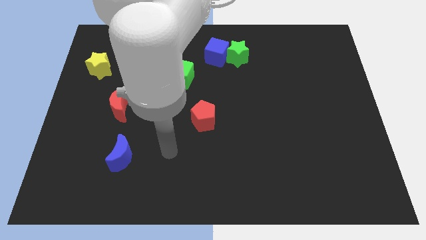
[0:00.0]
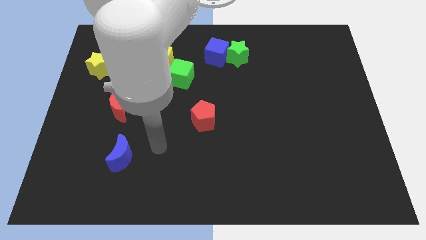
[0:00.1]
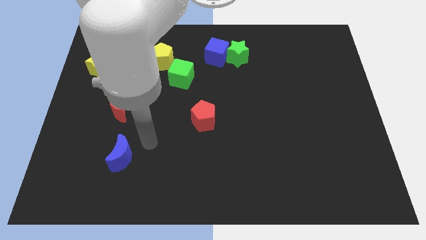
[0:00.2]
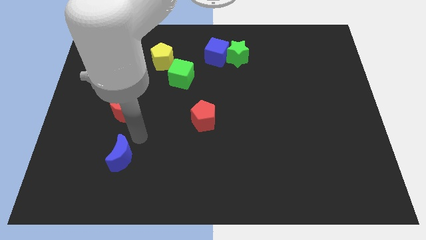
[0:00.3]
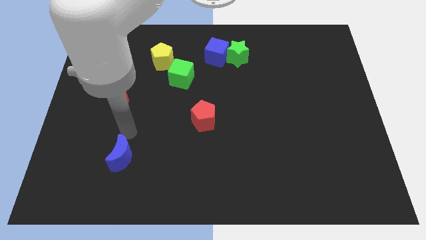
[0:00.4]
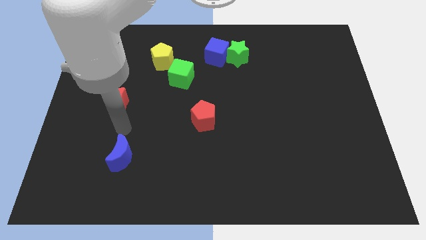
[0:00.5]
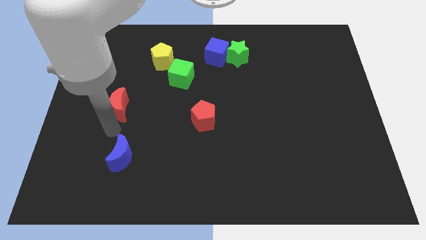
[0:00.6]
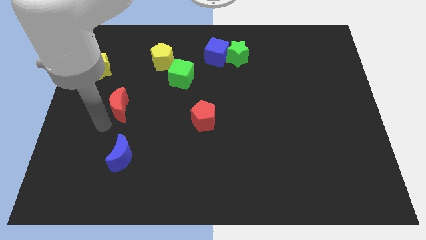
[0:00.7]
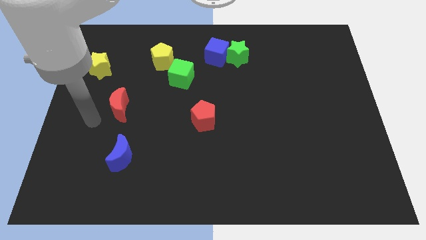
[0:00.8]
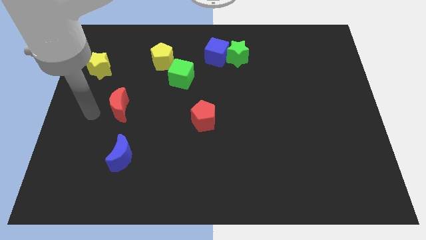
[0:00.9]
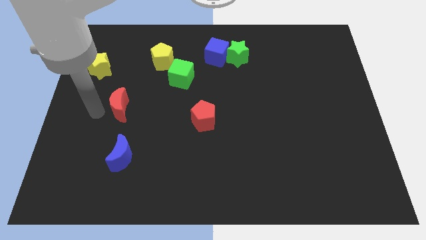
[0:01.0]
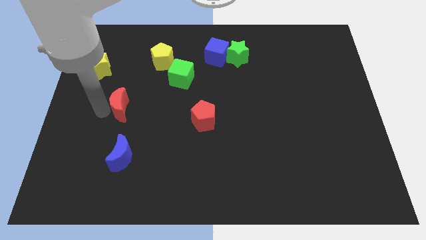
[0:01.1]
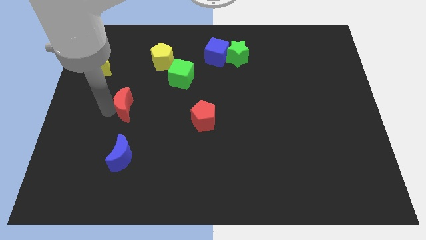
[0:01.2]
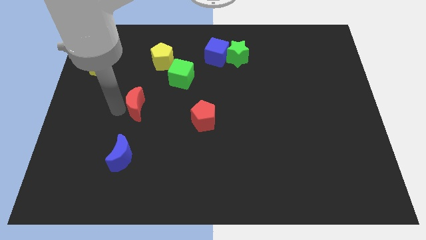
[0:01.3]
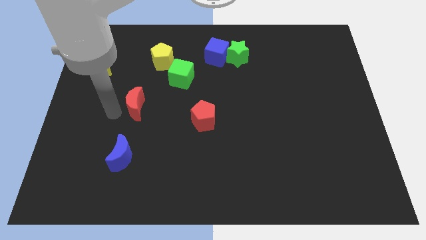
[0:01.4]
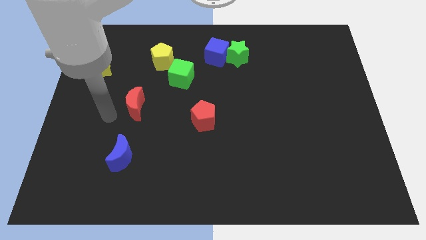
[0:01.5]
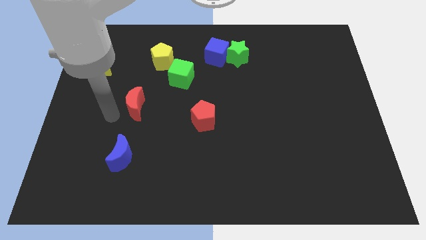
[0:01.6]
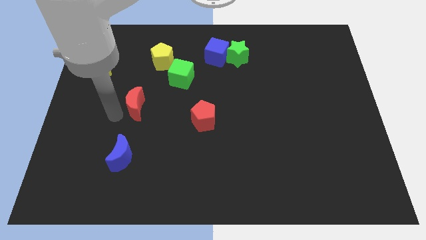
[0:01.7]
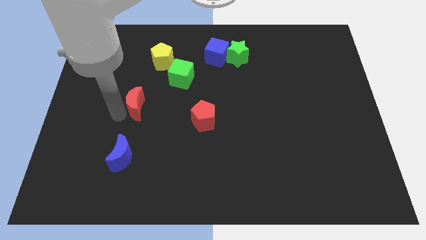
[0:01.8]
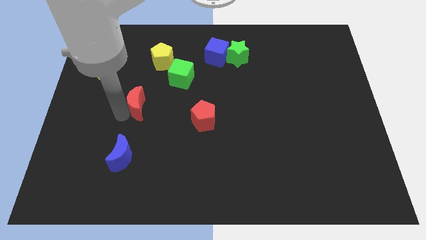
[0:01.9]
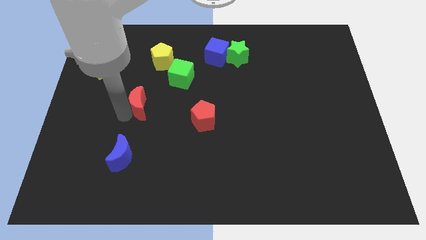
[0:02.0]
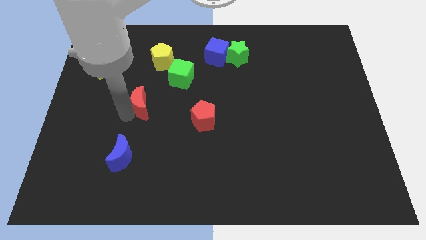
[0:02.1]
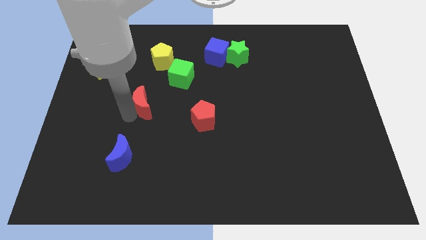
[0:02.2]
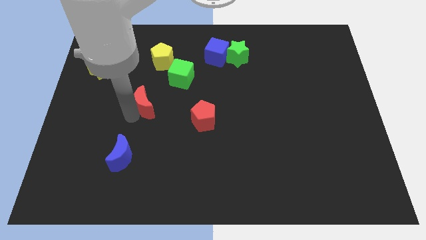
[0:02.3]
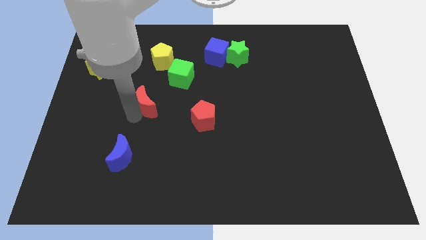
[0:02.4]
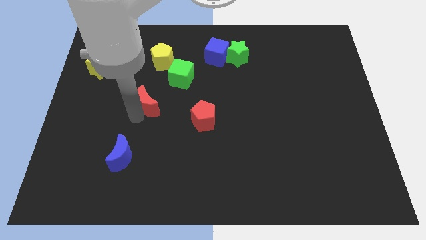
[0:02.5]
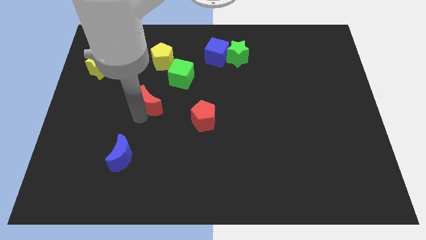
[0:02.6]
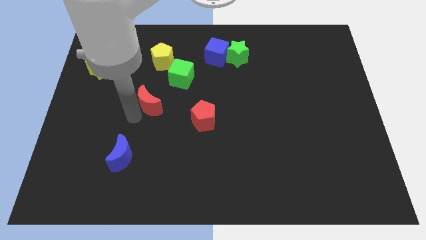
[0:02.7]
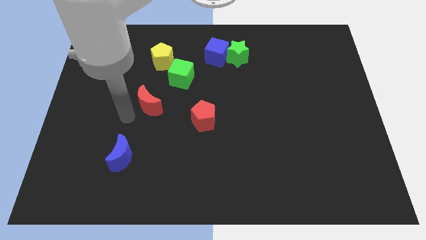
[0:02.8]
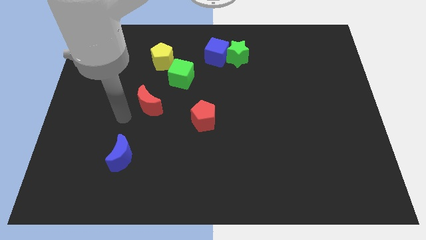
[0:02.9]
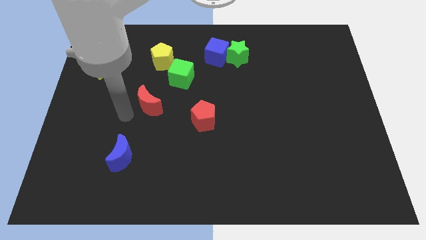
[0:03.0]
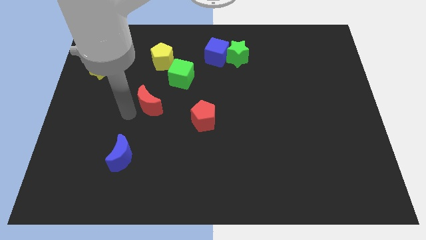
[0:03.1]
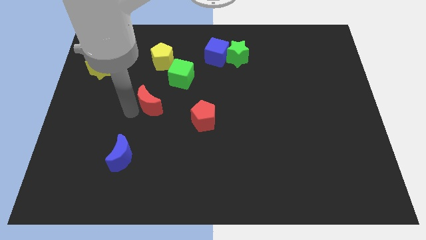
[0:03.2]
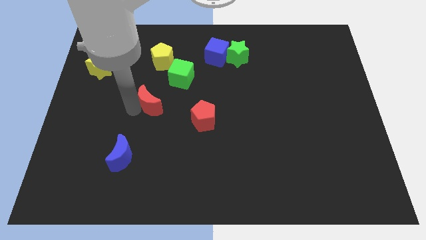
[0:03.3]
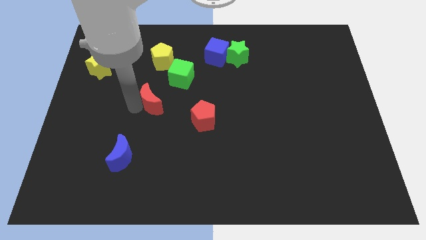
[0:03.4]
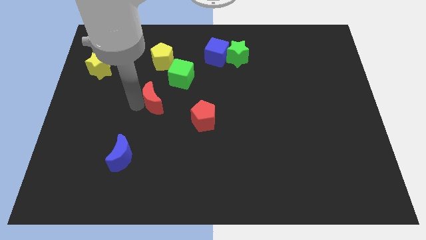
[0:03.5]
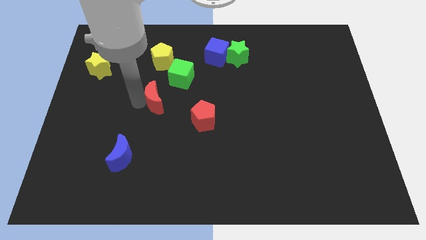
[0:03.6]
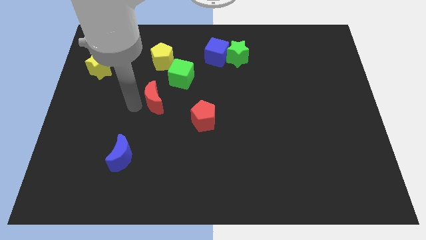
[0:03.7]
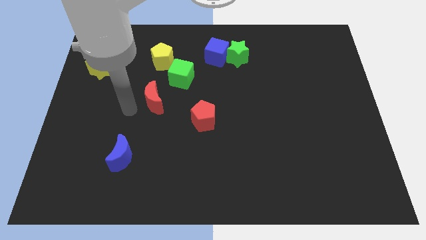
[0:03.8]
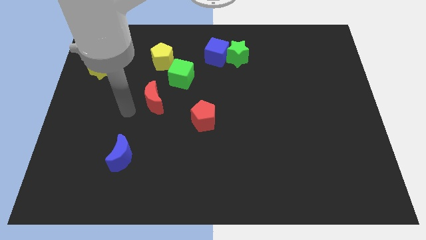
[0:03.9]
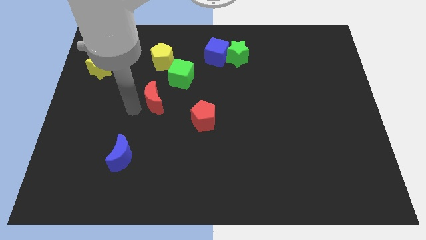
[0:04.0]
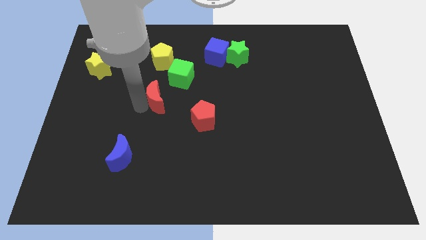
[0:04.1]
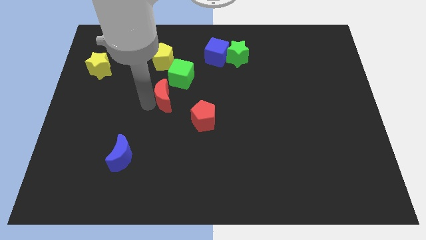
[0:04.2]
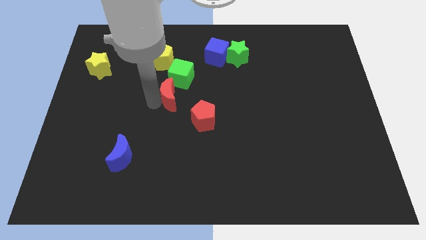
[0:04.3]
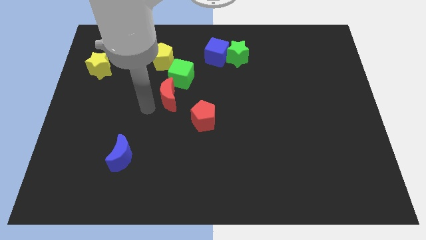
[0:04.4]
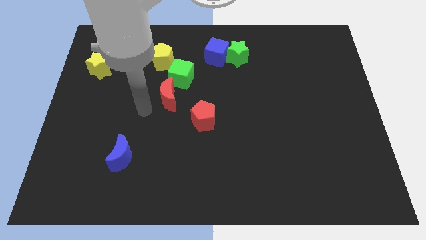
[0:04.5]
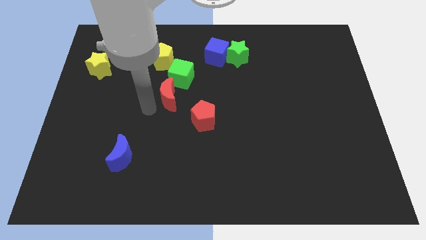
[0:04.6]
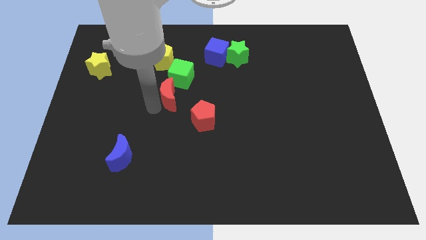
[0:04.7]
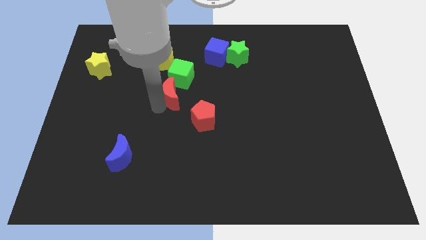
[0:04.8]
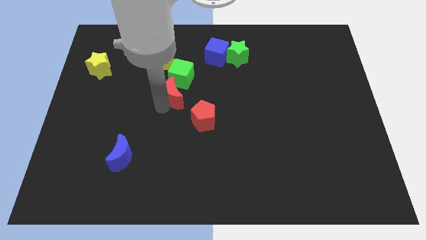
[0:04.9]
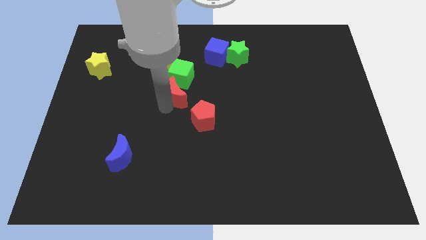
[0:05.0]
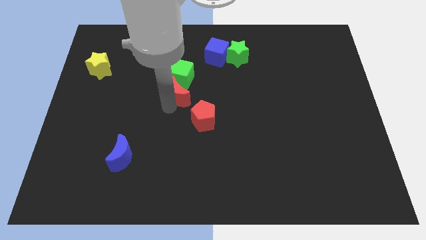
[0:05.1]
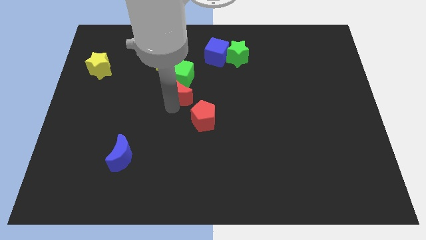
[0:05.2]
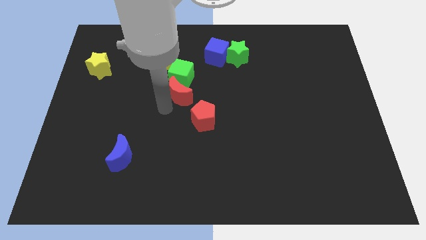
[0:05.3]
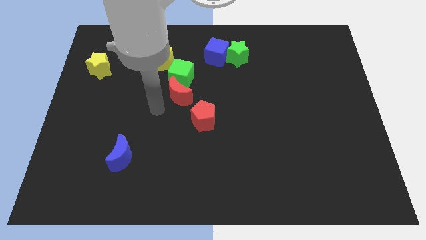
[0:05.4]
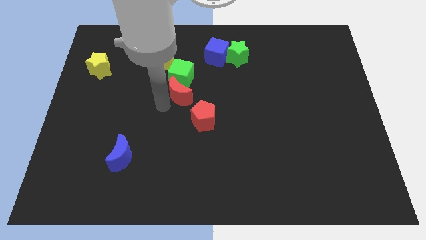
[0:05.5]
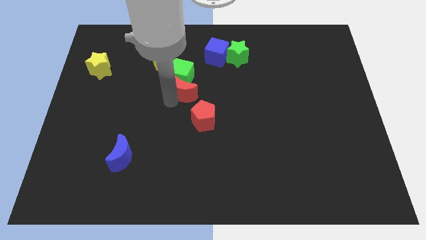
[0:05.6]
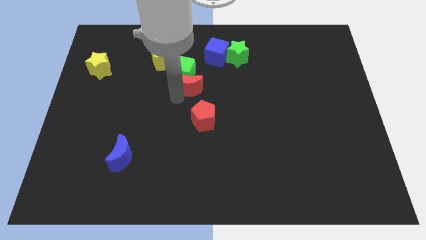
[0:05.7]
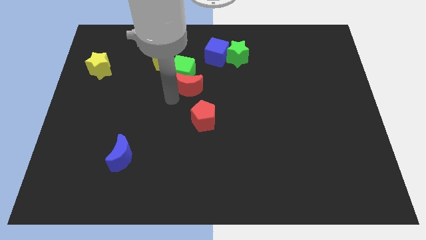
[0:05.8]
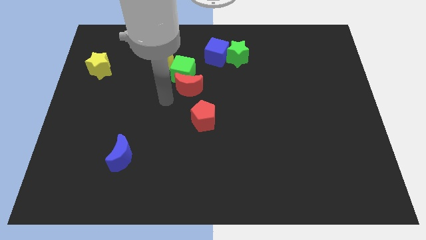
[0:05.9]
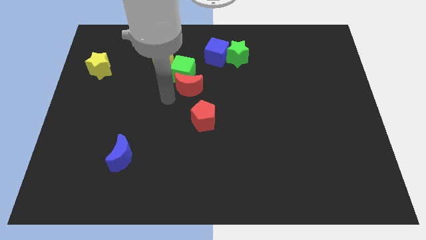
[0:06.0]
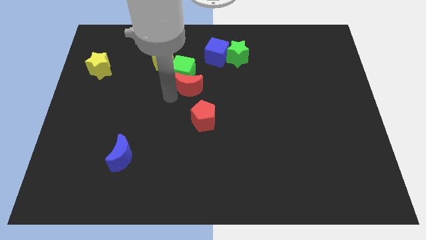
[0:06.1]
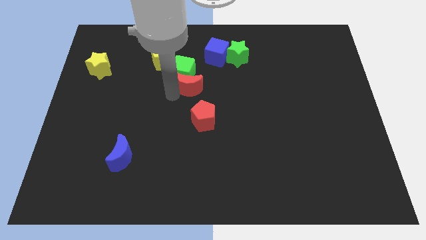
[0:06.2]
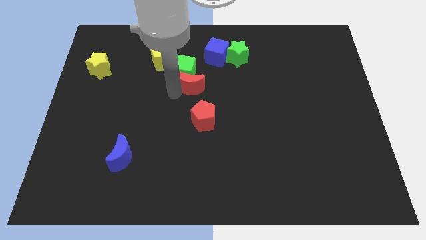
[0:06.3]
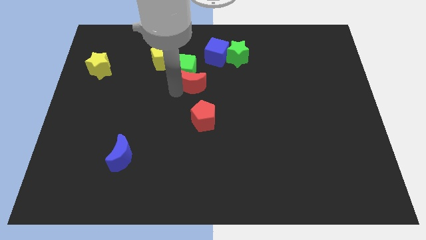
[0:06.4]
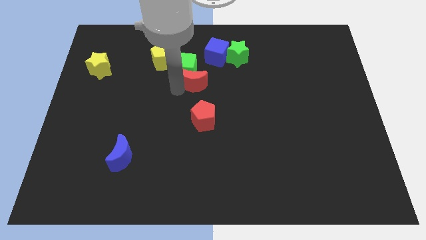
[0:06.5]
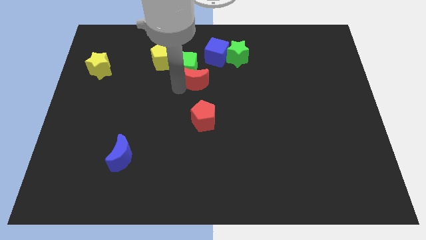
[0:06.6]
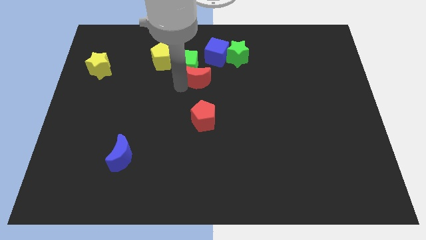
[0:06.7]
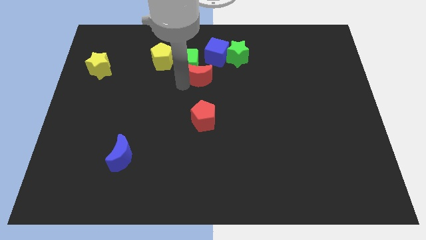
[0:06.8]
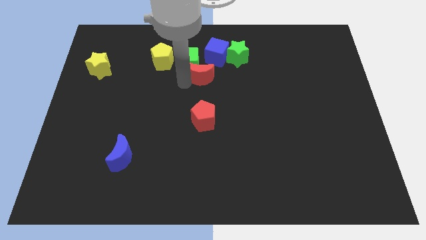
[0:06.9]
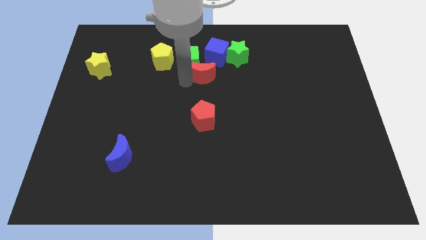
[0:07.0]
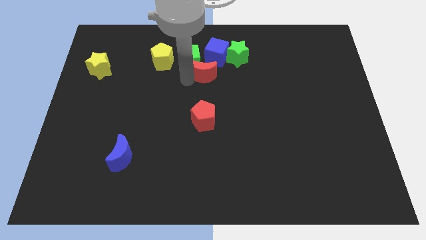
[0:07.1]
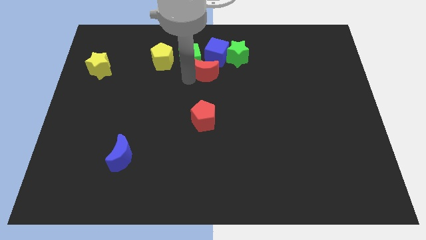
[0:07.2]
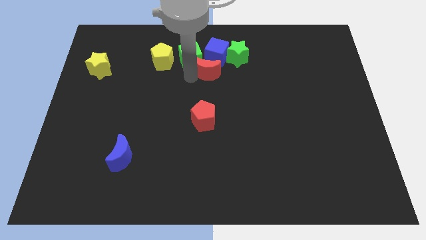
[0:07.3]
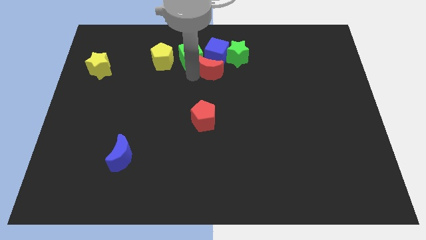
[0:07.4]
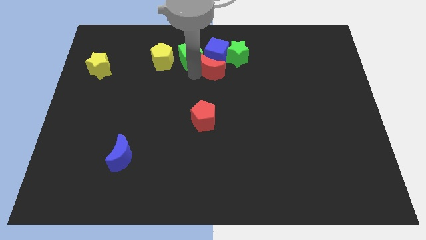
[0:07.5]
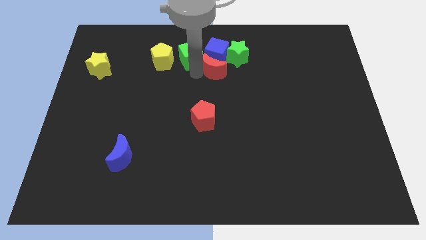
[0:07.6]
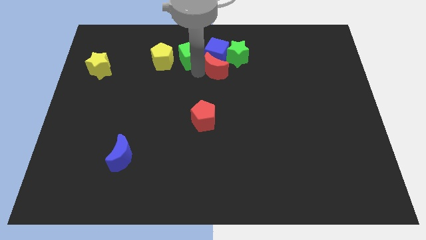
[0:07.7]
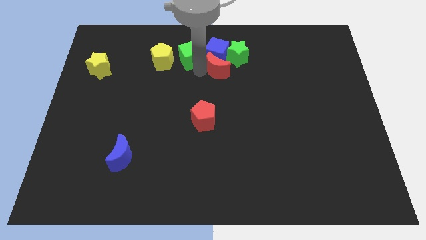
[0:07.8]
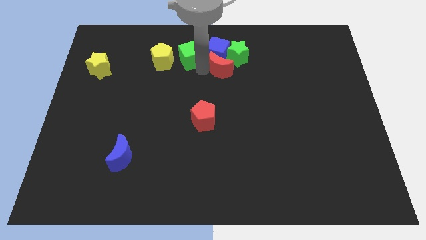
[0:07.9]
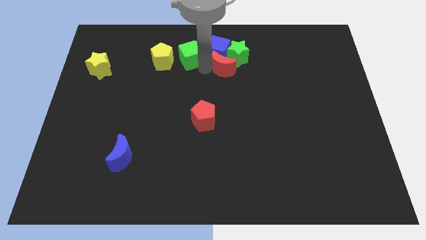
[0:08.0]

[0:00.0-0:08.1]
put the red moon towards the green star

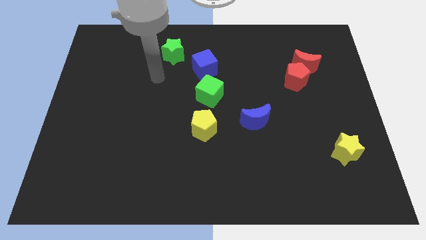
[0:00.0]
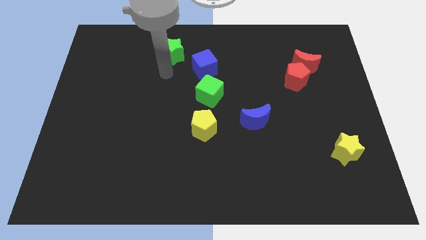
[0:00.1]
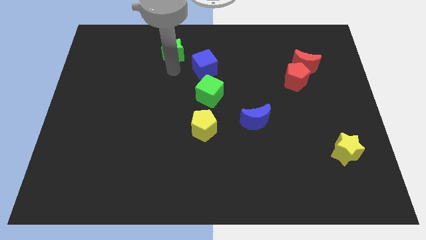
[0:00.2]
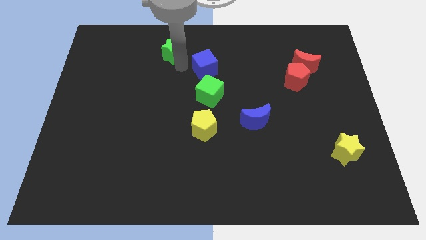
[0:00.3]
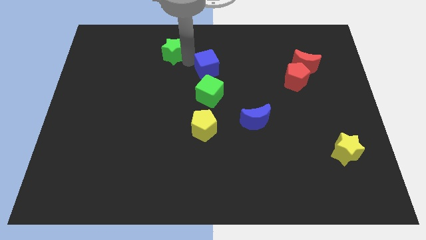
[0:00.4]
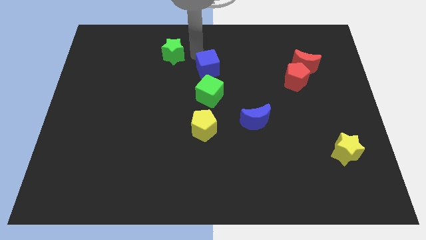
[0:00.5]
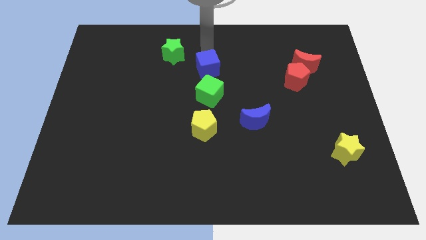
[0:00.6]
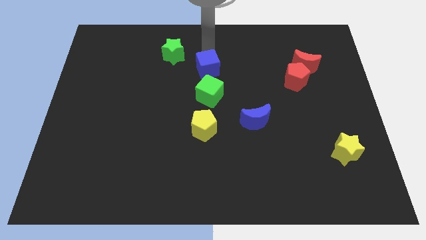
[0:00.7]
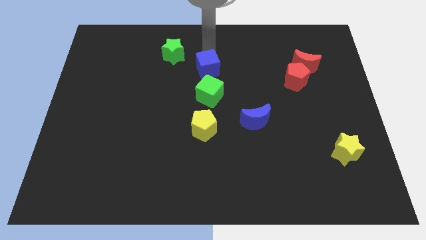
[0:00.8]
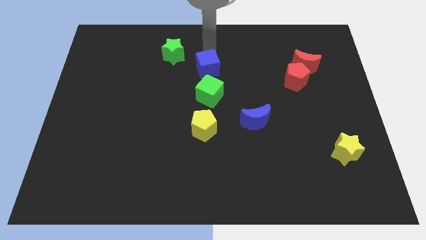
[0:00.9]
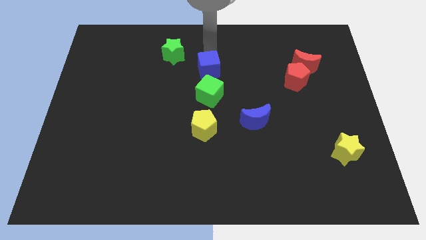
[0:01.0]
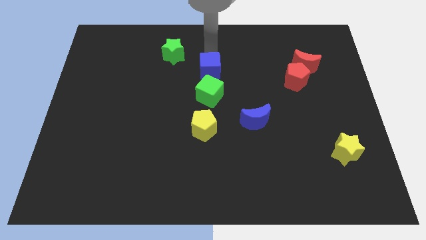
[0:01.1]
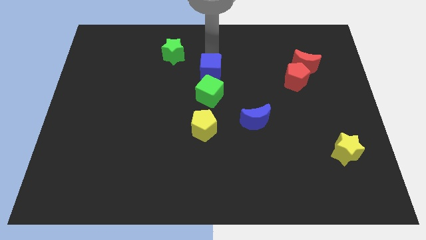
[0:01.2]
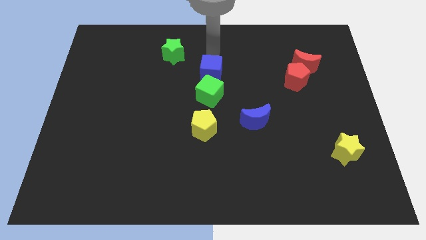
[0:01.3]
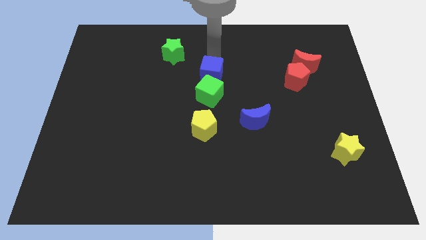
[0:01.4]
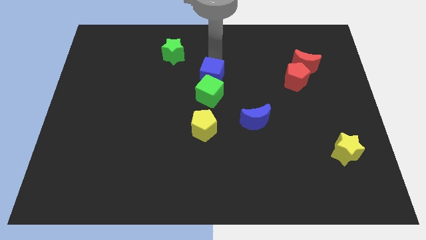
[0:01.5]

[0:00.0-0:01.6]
move the blue cube close to the green cube
